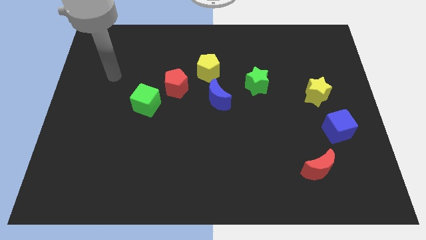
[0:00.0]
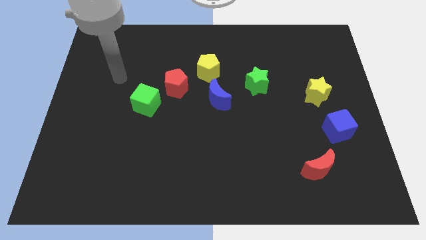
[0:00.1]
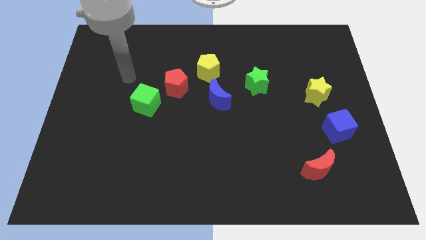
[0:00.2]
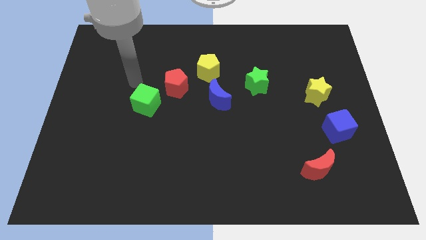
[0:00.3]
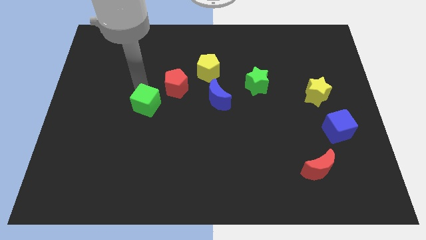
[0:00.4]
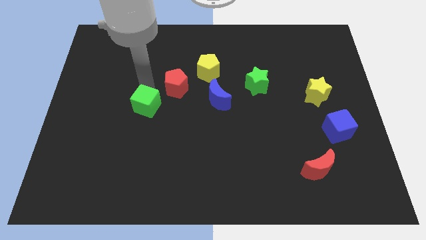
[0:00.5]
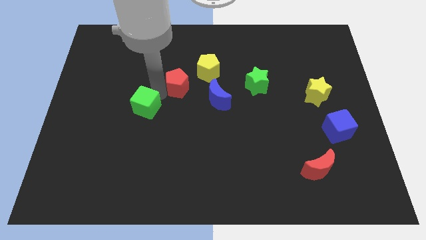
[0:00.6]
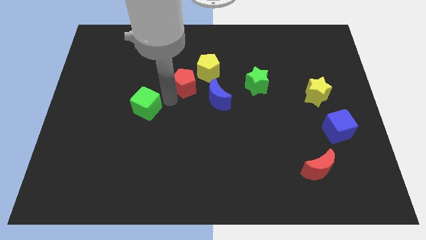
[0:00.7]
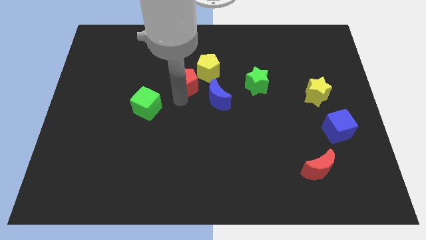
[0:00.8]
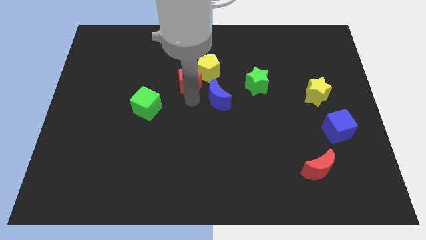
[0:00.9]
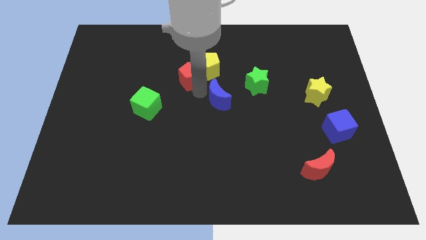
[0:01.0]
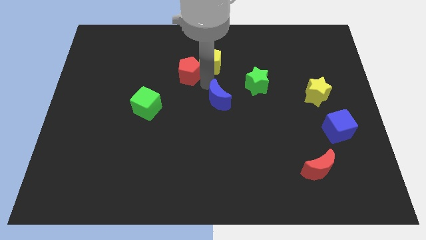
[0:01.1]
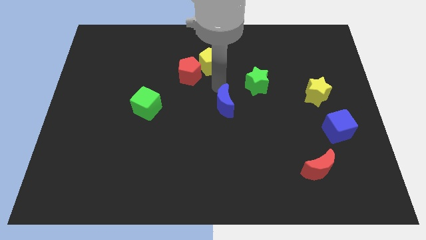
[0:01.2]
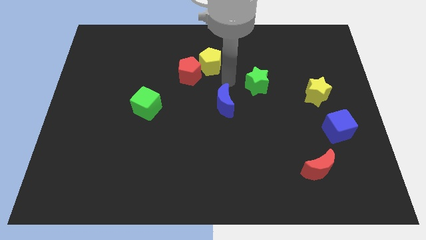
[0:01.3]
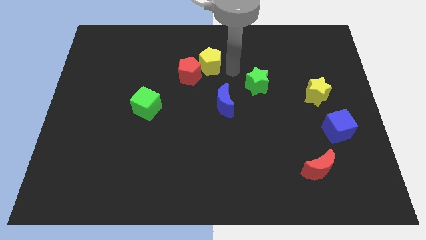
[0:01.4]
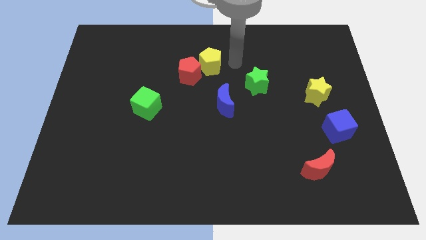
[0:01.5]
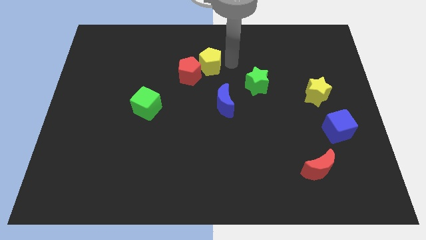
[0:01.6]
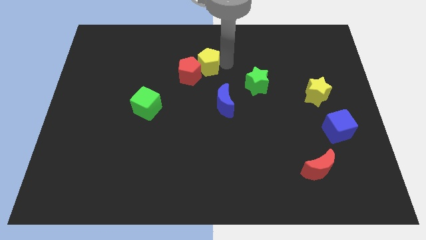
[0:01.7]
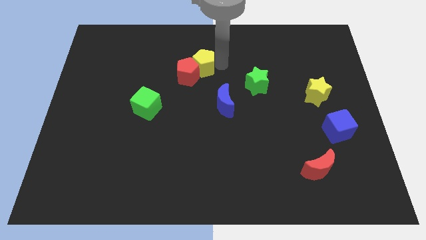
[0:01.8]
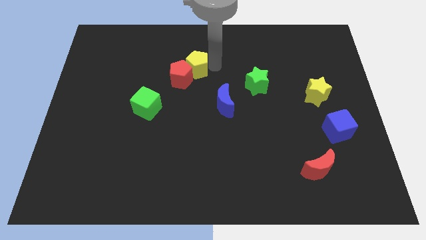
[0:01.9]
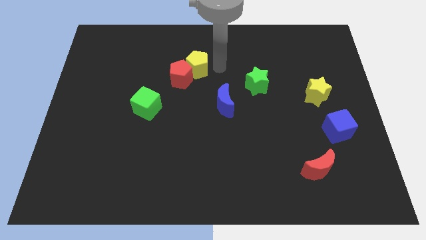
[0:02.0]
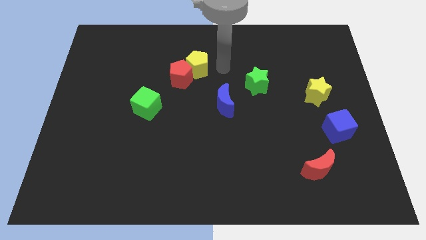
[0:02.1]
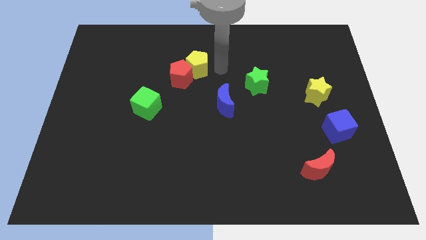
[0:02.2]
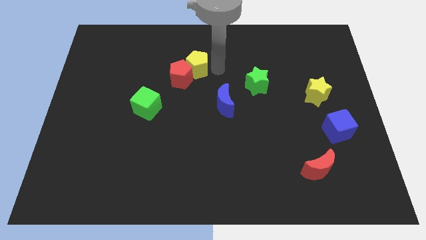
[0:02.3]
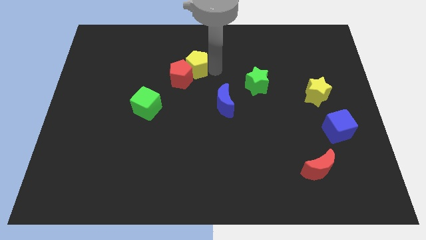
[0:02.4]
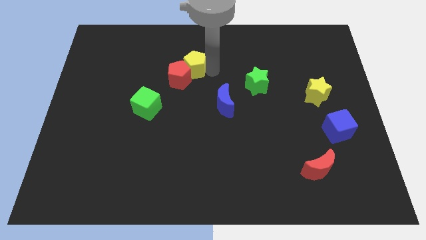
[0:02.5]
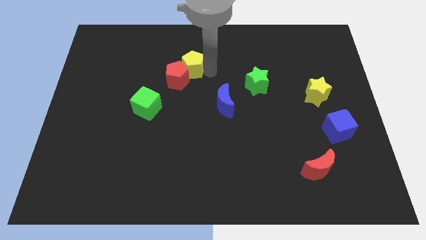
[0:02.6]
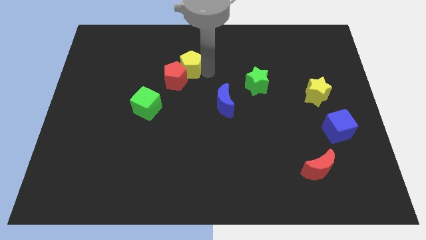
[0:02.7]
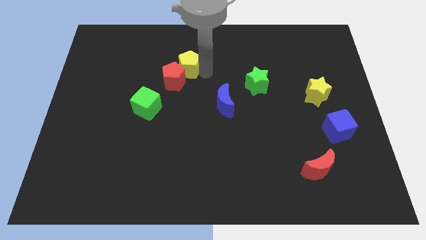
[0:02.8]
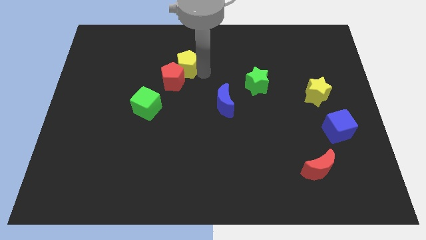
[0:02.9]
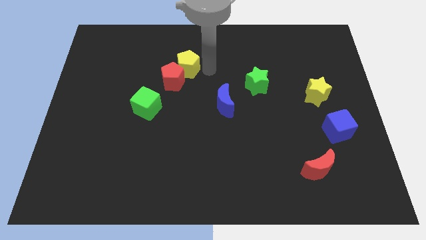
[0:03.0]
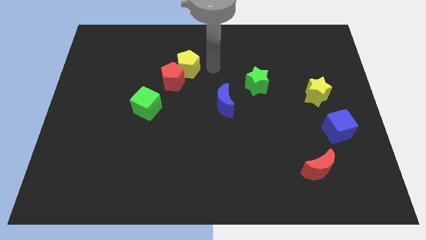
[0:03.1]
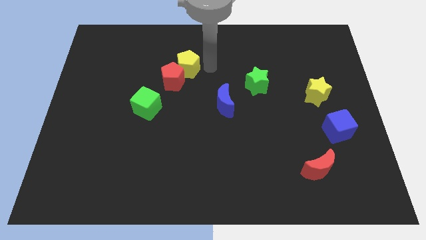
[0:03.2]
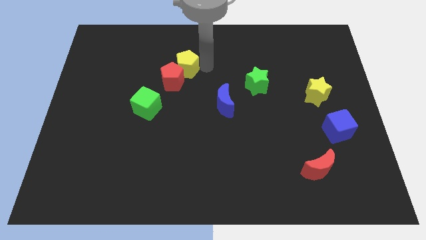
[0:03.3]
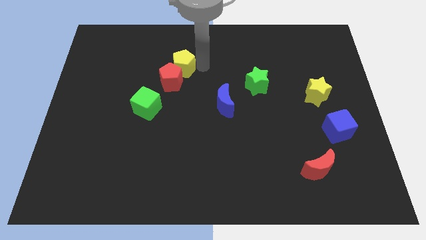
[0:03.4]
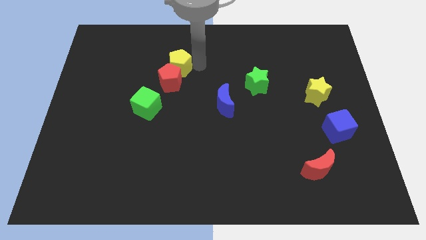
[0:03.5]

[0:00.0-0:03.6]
slightly push the yellow pentagon to the left

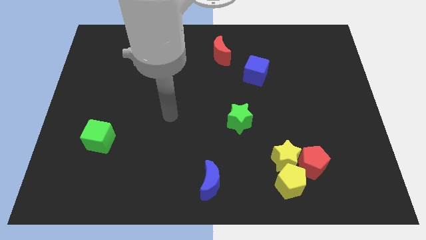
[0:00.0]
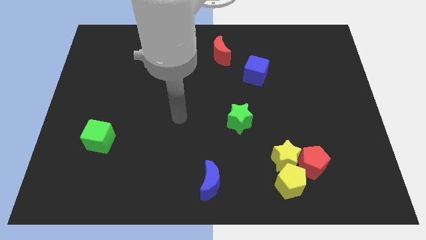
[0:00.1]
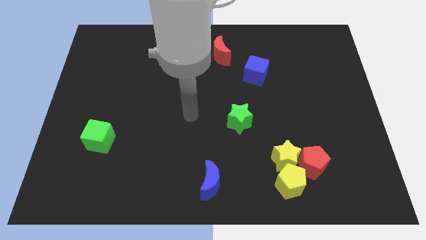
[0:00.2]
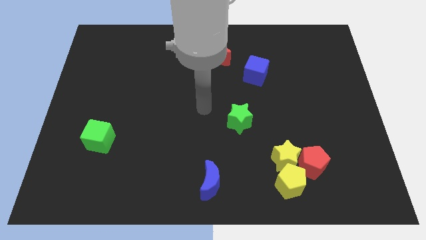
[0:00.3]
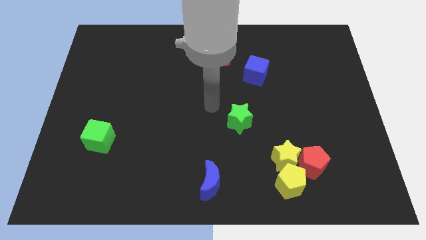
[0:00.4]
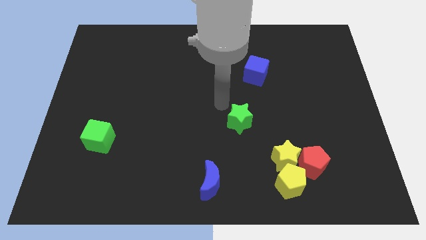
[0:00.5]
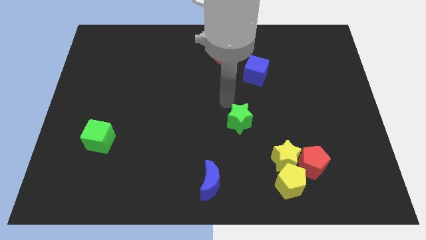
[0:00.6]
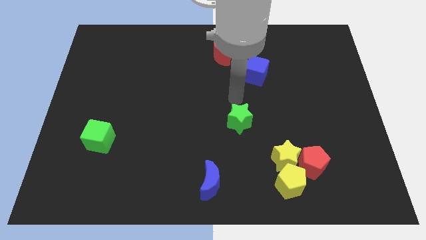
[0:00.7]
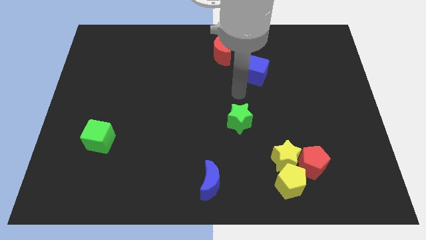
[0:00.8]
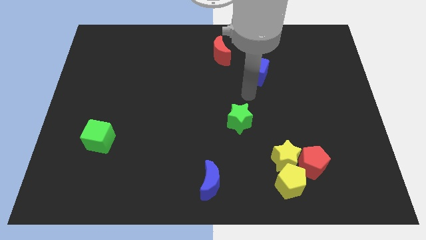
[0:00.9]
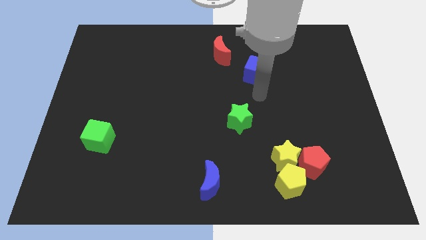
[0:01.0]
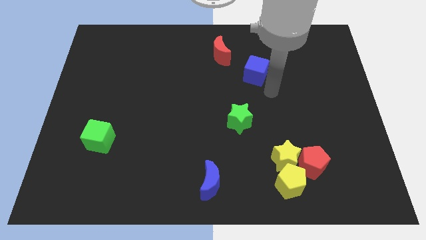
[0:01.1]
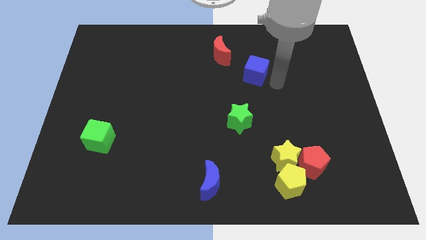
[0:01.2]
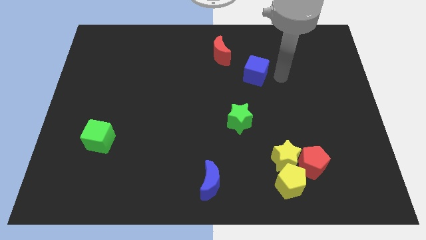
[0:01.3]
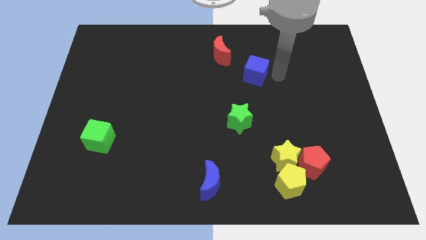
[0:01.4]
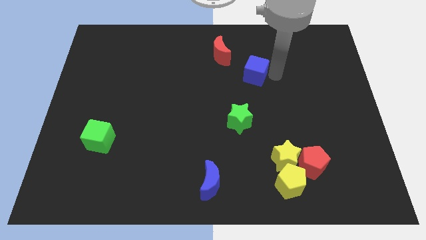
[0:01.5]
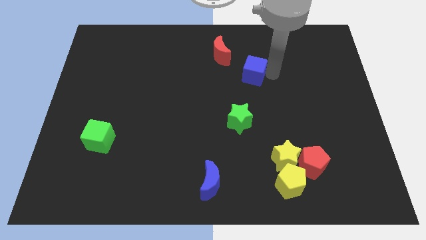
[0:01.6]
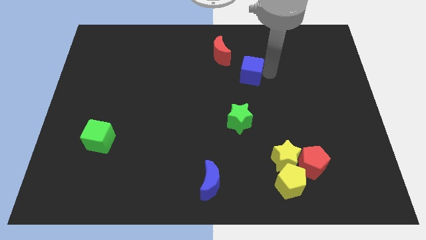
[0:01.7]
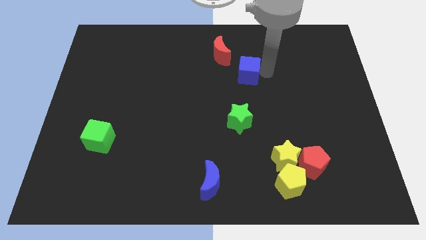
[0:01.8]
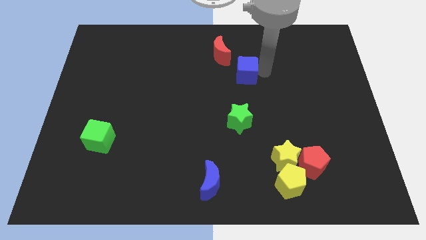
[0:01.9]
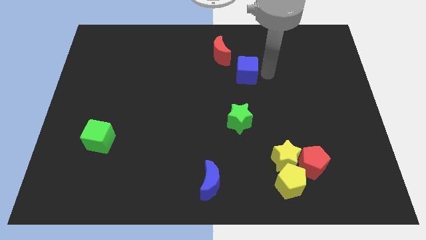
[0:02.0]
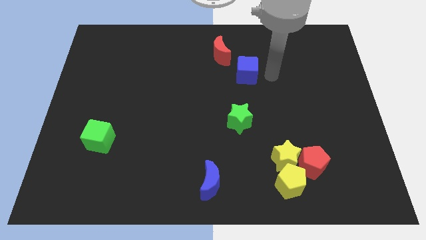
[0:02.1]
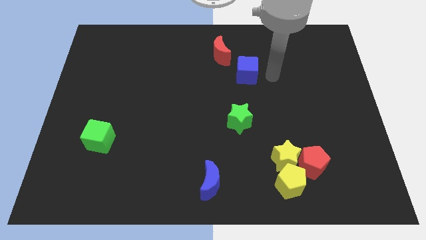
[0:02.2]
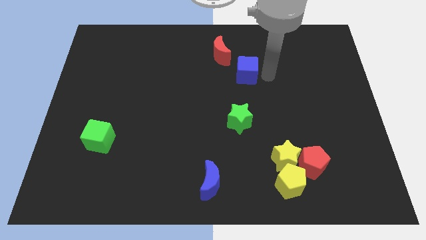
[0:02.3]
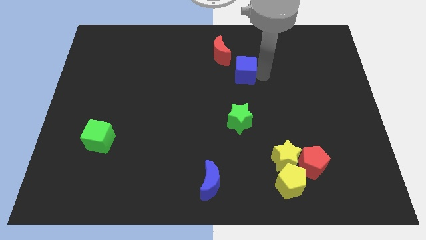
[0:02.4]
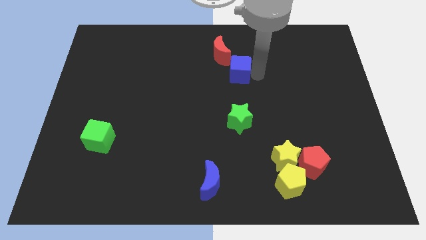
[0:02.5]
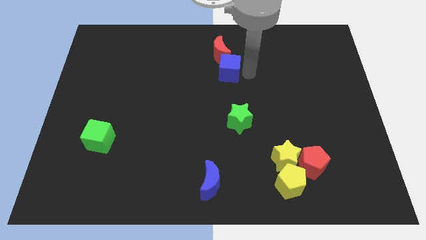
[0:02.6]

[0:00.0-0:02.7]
slightly slide the blue cube to the left

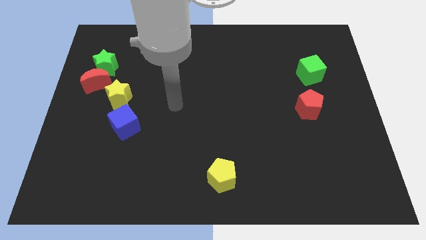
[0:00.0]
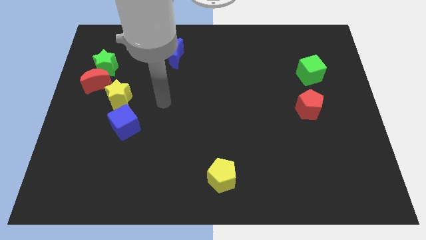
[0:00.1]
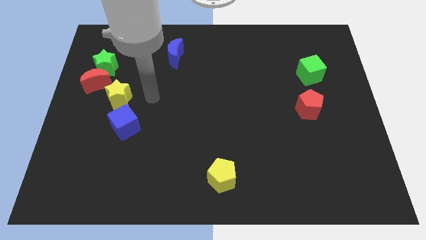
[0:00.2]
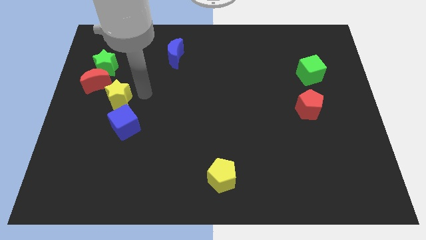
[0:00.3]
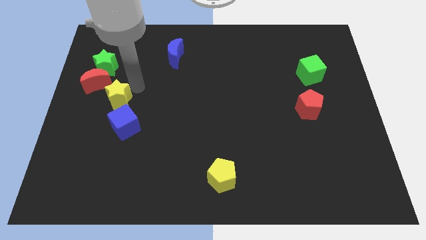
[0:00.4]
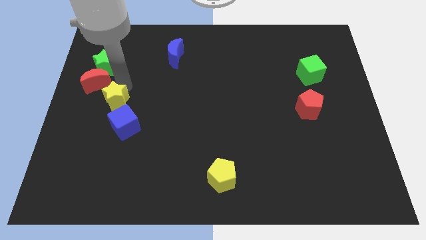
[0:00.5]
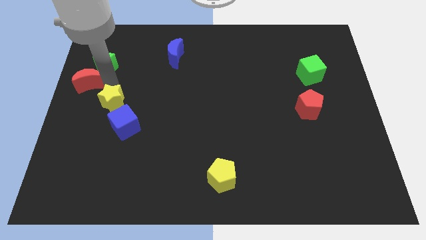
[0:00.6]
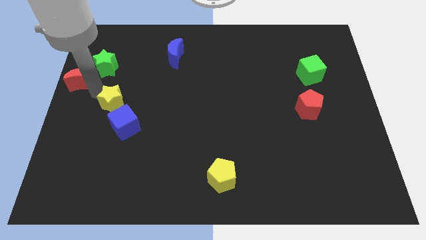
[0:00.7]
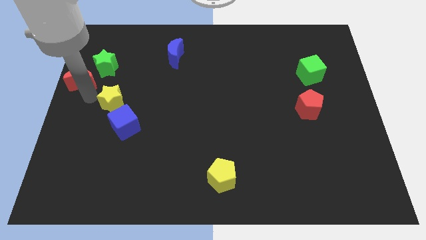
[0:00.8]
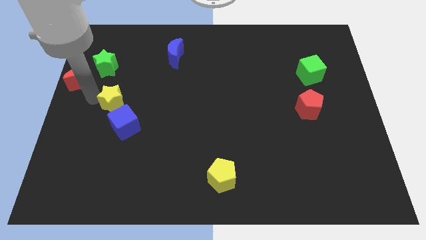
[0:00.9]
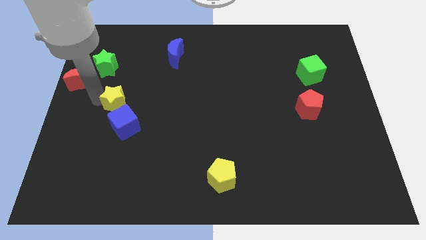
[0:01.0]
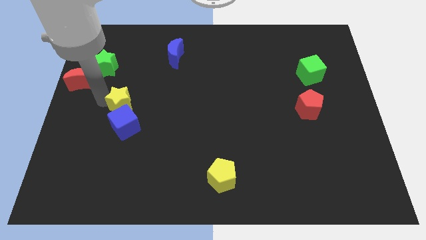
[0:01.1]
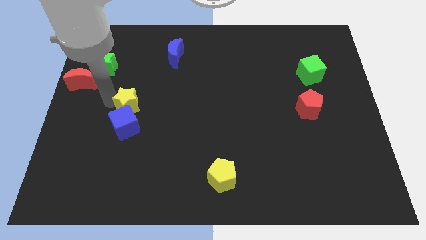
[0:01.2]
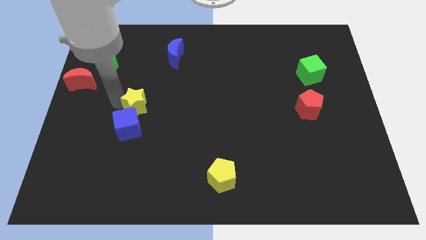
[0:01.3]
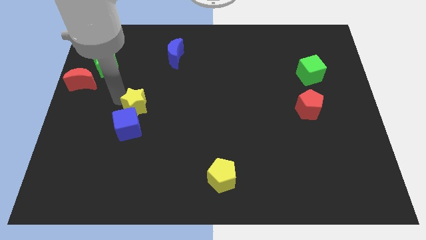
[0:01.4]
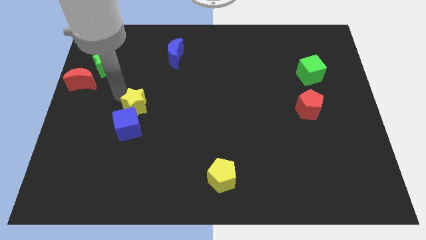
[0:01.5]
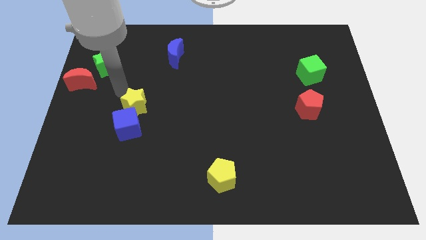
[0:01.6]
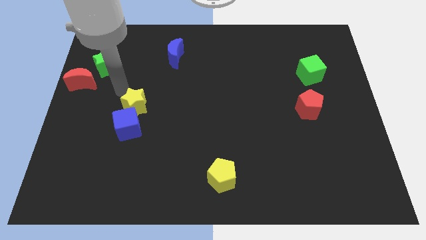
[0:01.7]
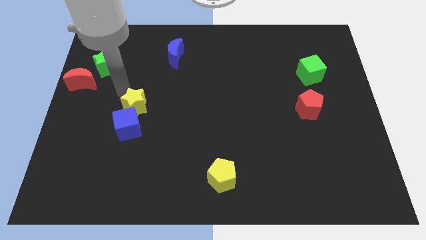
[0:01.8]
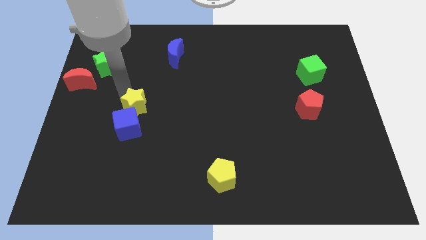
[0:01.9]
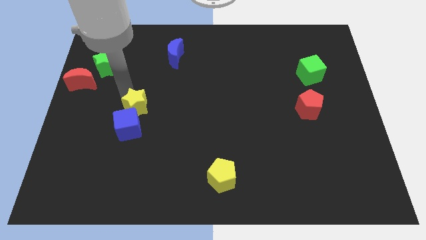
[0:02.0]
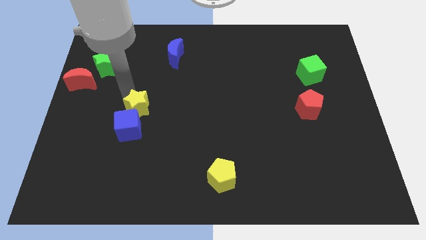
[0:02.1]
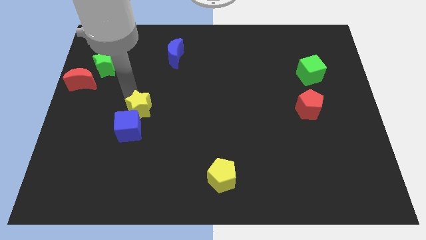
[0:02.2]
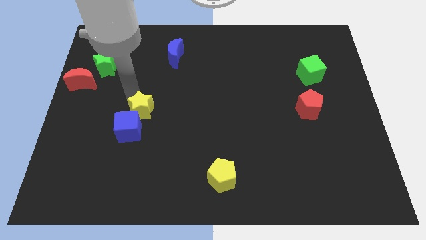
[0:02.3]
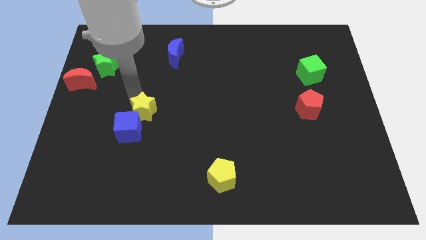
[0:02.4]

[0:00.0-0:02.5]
slide the yellow star down and right diagonally a bit
